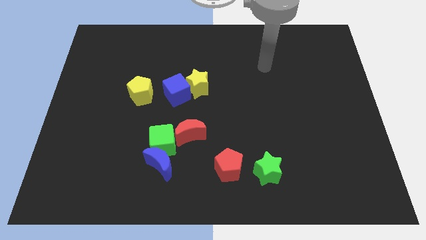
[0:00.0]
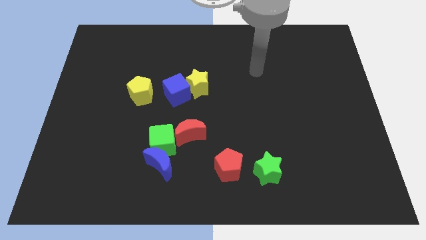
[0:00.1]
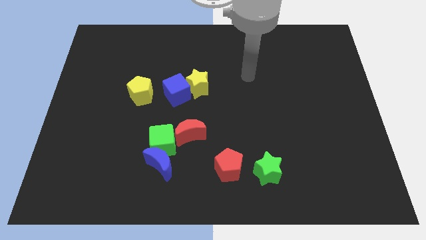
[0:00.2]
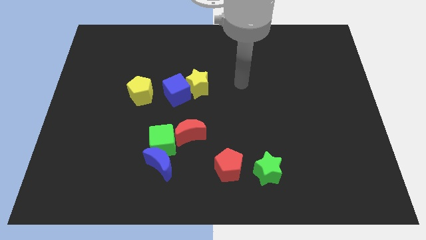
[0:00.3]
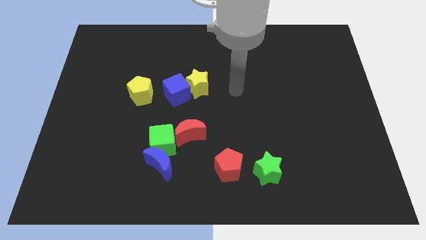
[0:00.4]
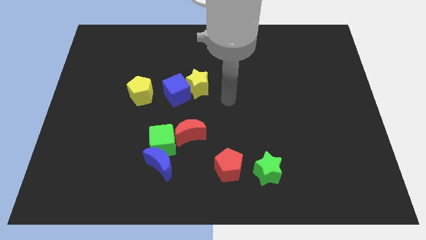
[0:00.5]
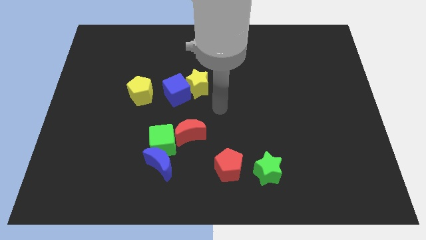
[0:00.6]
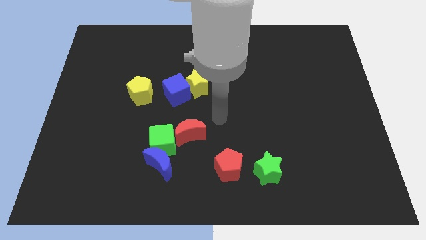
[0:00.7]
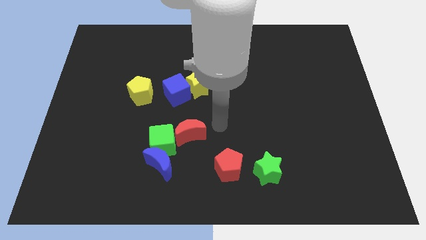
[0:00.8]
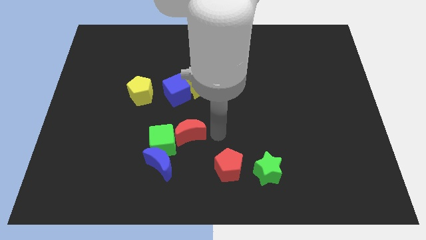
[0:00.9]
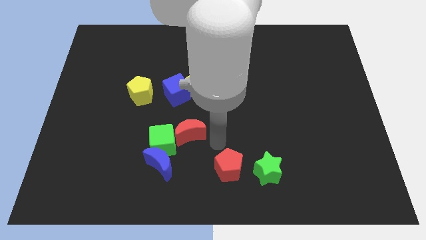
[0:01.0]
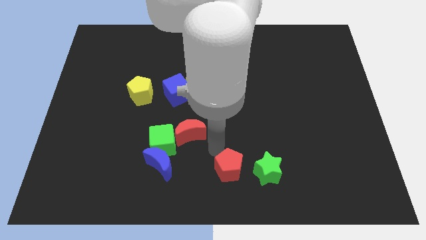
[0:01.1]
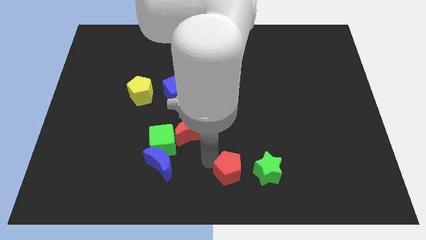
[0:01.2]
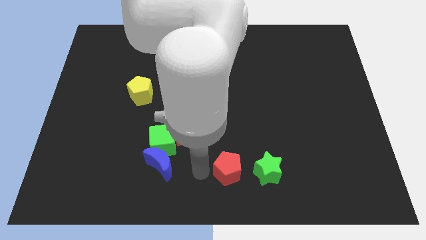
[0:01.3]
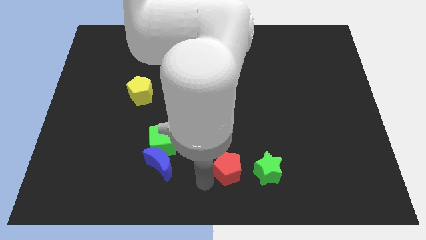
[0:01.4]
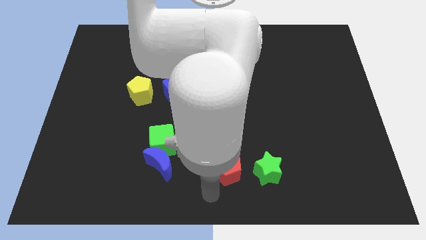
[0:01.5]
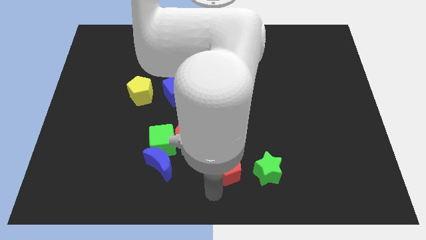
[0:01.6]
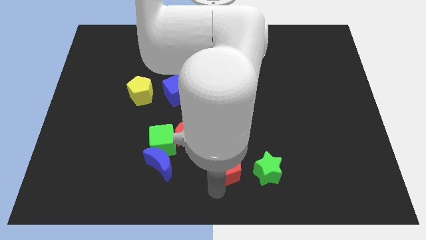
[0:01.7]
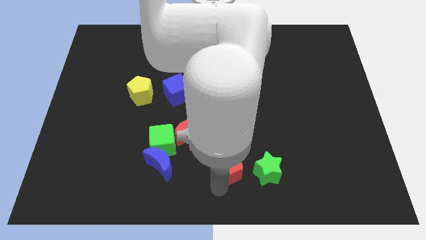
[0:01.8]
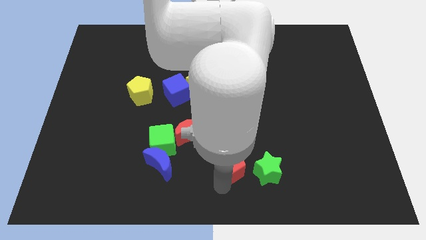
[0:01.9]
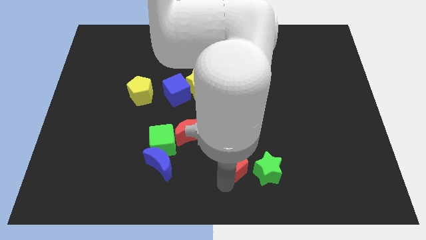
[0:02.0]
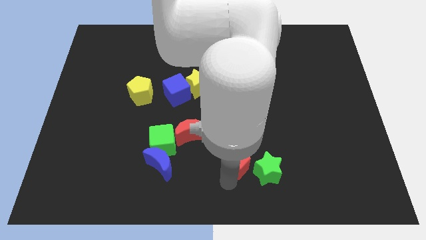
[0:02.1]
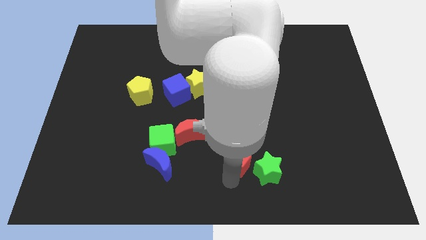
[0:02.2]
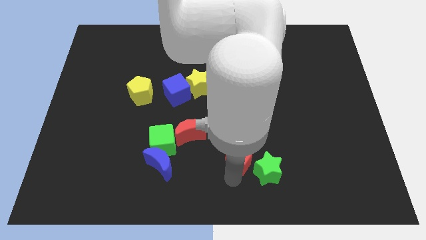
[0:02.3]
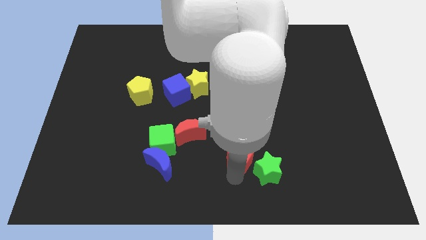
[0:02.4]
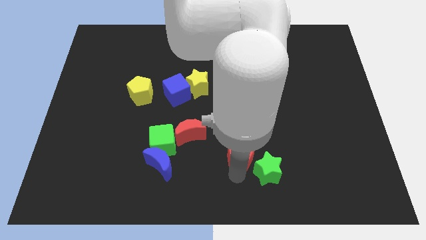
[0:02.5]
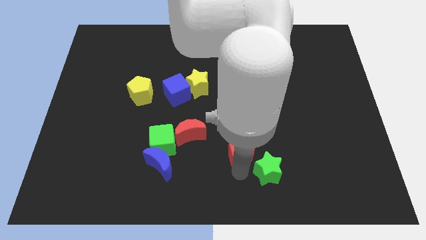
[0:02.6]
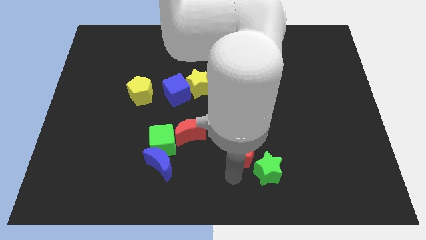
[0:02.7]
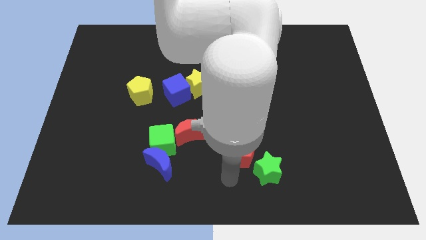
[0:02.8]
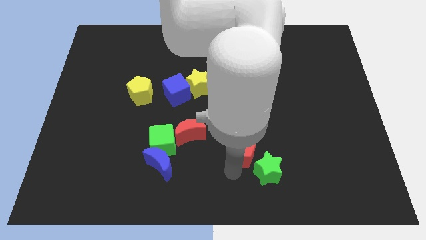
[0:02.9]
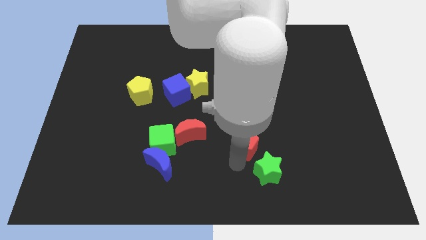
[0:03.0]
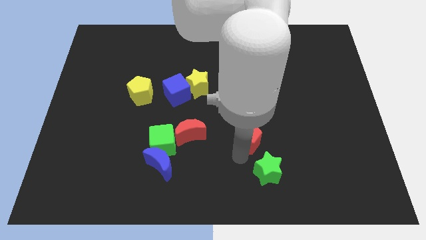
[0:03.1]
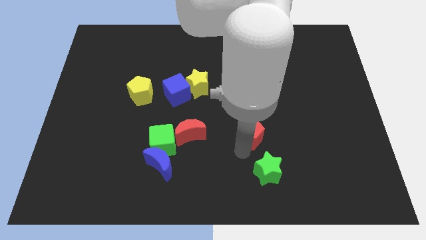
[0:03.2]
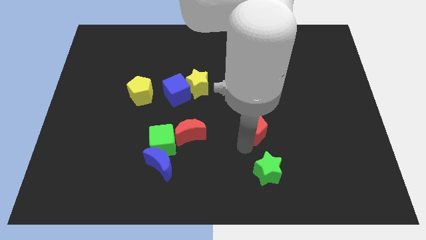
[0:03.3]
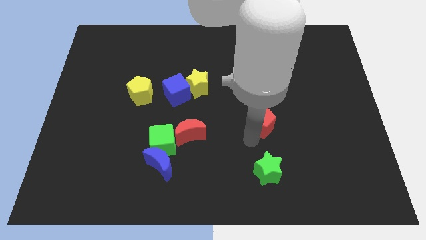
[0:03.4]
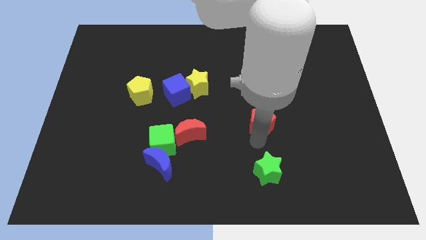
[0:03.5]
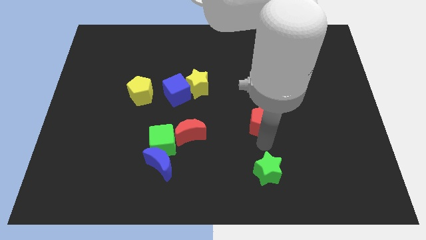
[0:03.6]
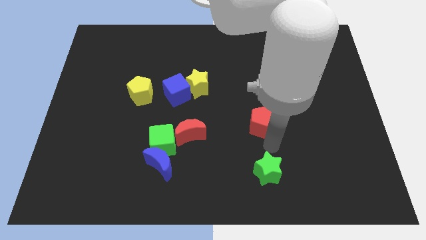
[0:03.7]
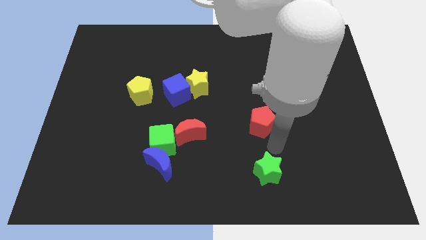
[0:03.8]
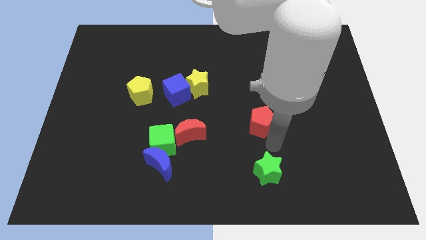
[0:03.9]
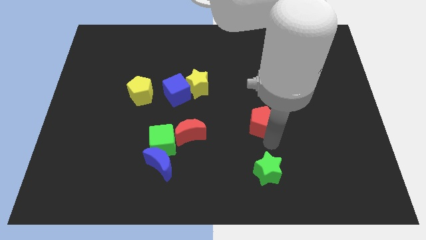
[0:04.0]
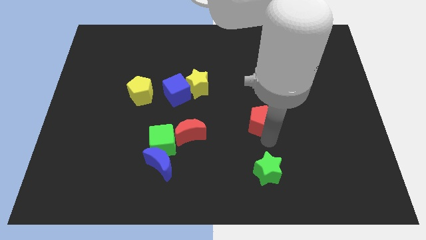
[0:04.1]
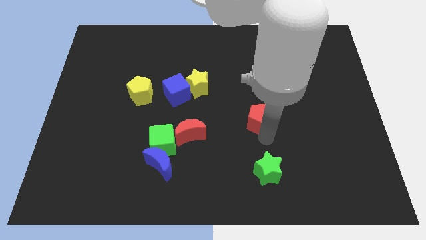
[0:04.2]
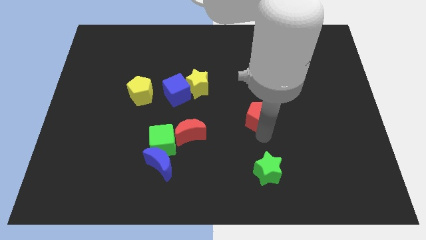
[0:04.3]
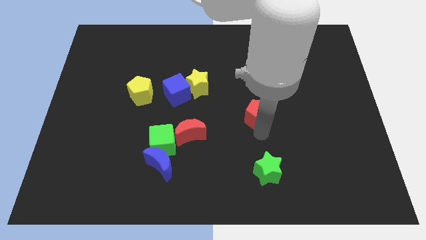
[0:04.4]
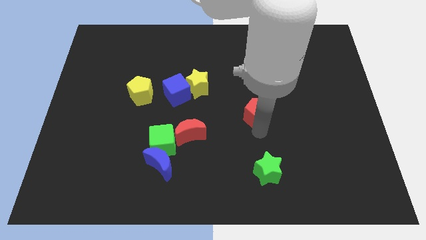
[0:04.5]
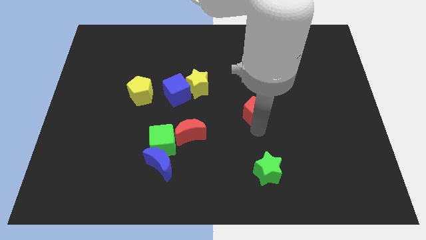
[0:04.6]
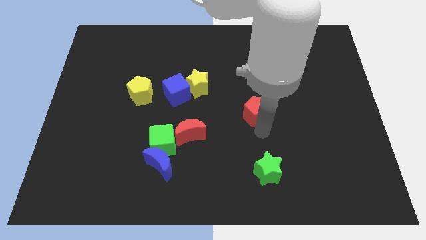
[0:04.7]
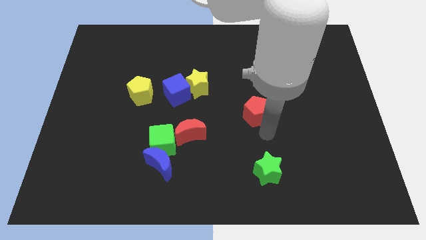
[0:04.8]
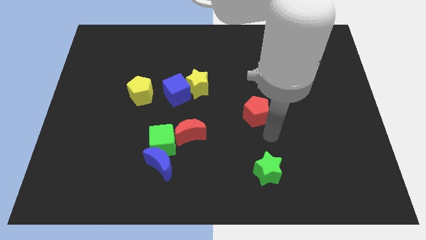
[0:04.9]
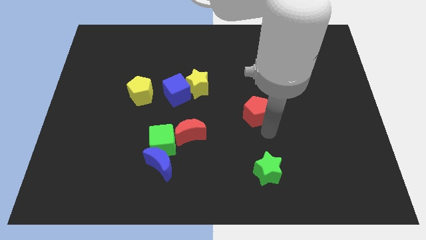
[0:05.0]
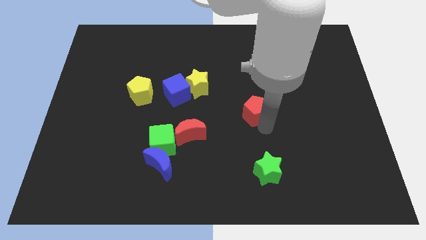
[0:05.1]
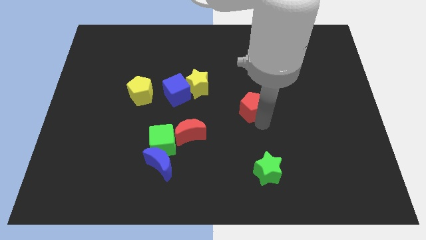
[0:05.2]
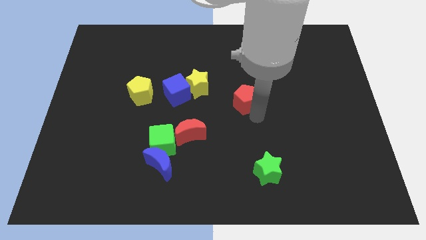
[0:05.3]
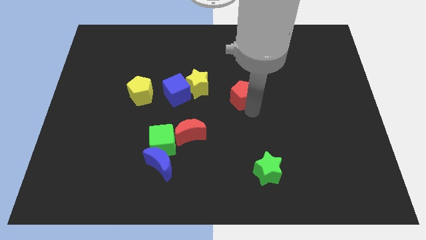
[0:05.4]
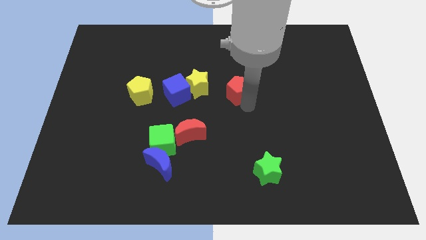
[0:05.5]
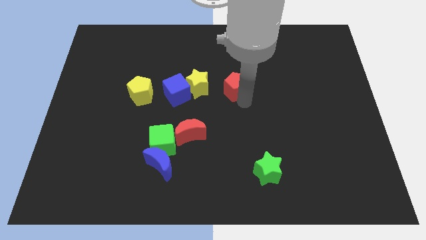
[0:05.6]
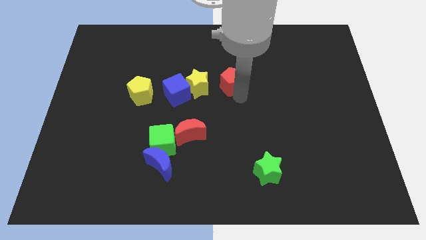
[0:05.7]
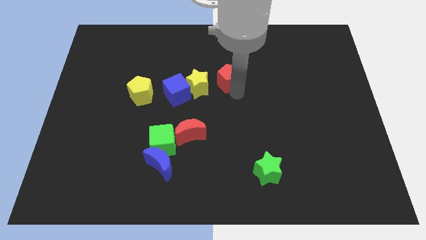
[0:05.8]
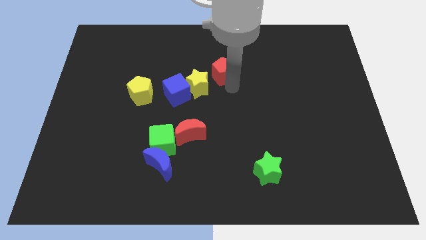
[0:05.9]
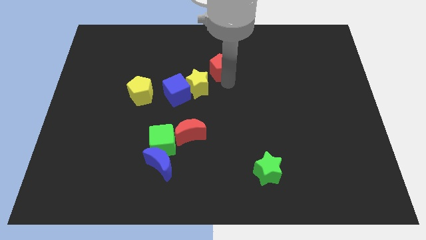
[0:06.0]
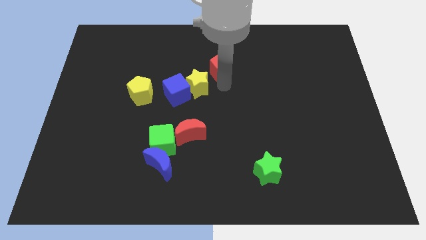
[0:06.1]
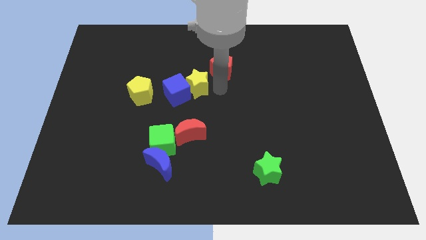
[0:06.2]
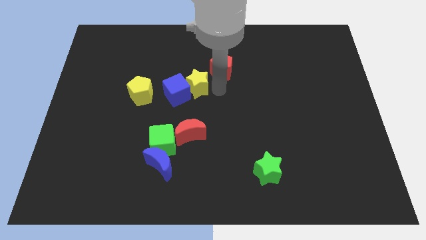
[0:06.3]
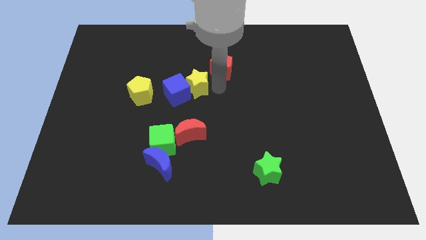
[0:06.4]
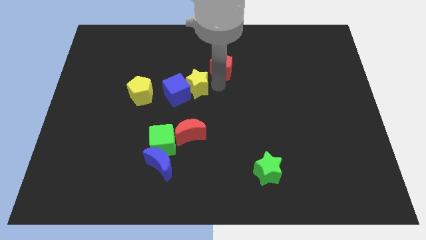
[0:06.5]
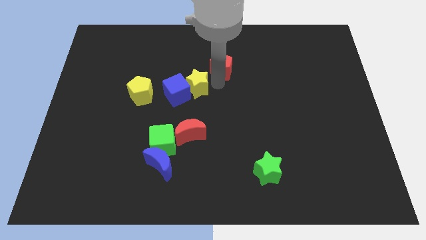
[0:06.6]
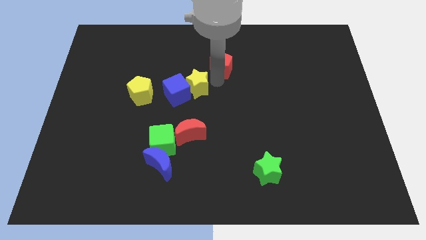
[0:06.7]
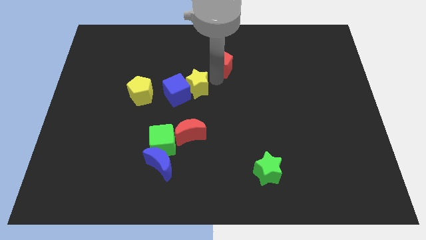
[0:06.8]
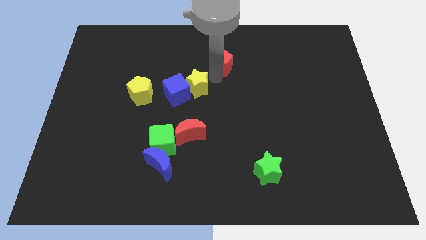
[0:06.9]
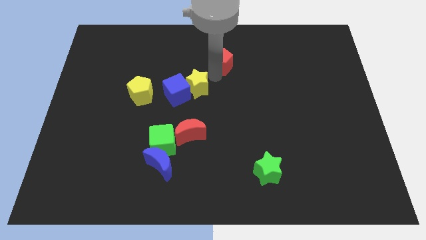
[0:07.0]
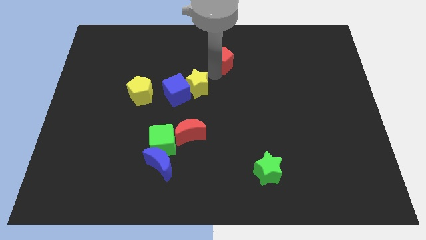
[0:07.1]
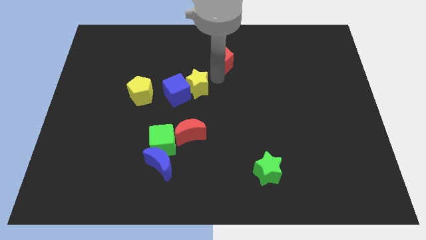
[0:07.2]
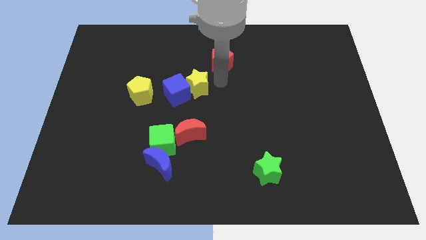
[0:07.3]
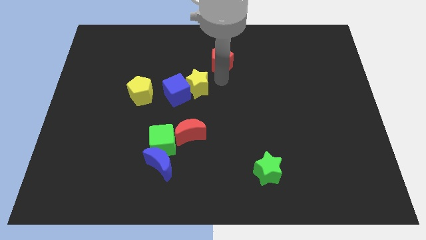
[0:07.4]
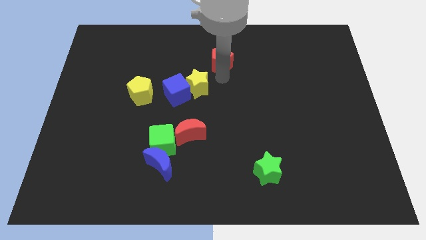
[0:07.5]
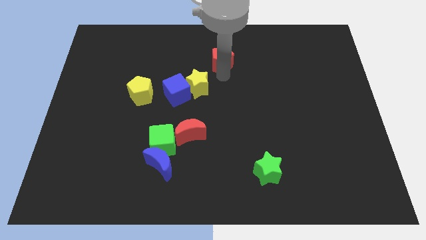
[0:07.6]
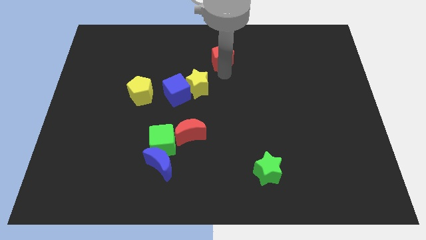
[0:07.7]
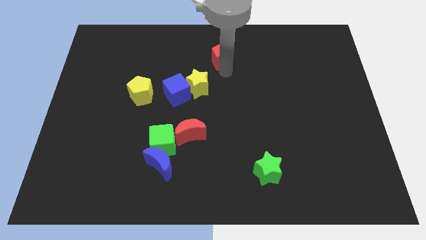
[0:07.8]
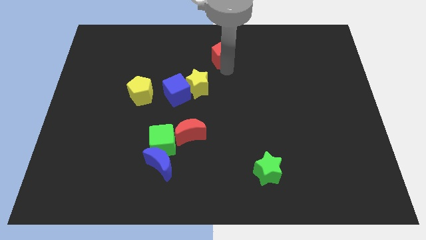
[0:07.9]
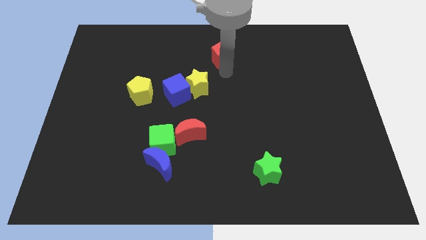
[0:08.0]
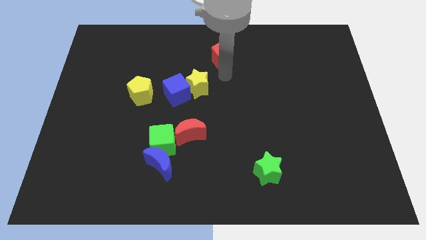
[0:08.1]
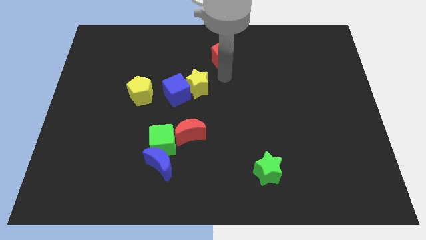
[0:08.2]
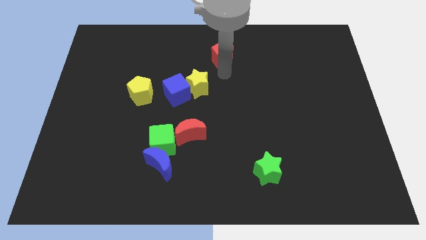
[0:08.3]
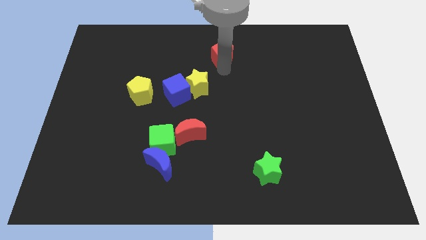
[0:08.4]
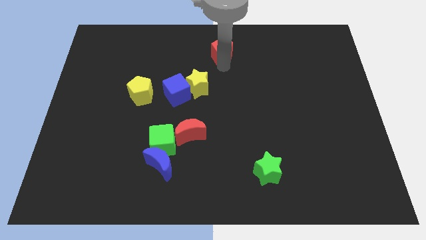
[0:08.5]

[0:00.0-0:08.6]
push the red pentagon to the top side
